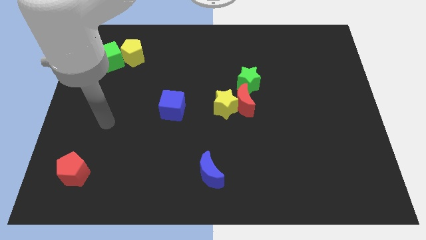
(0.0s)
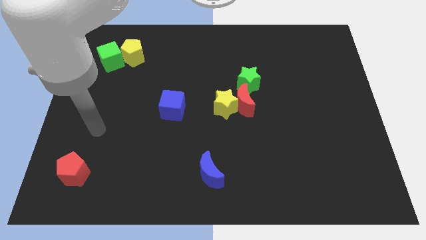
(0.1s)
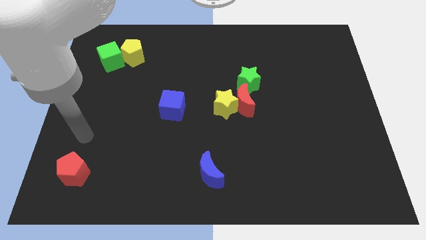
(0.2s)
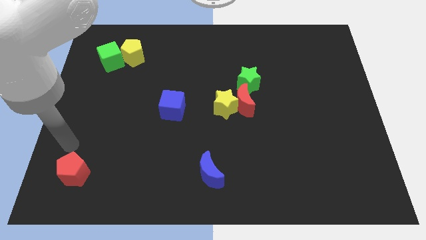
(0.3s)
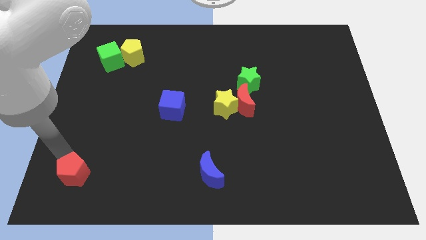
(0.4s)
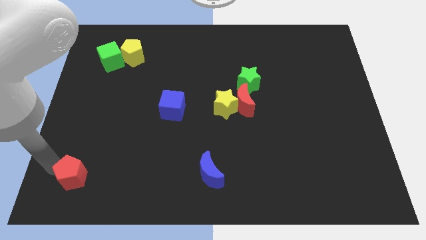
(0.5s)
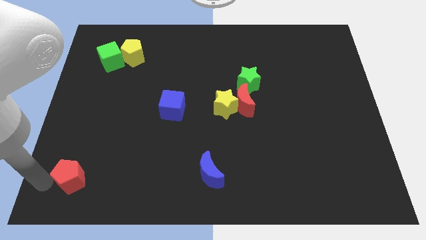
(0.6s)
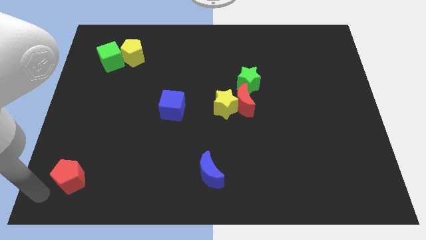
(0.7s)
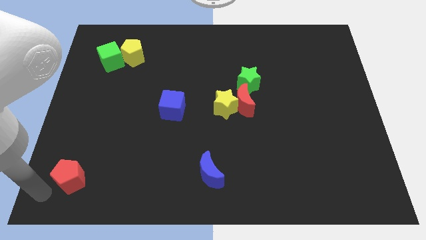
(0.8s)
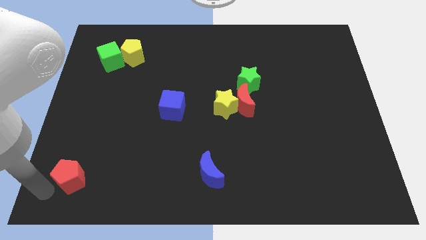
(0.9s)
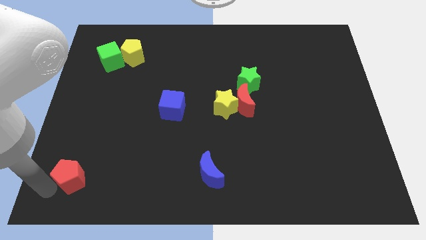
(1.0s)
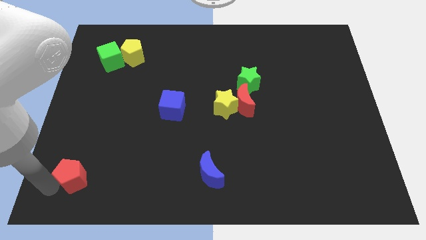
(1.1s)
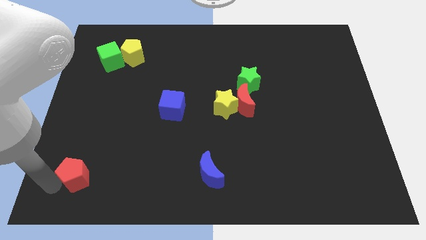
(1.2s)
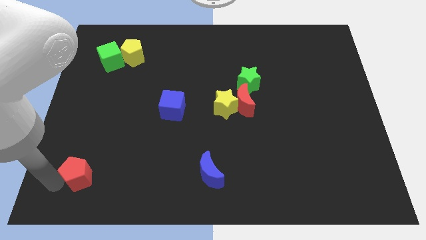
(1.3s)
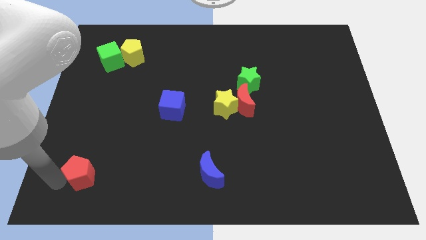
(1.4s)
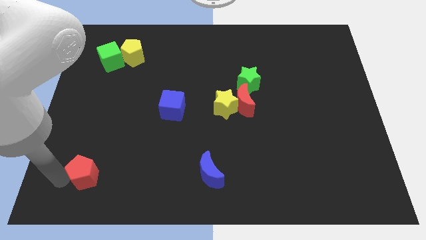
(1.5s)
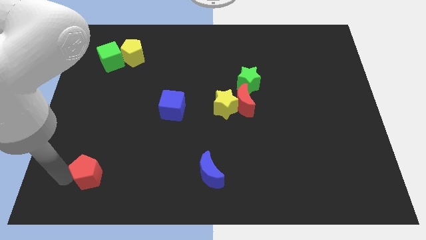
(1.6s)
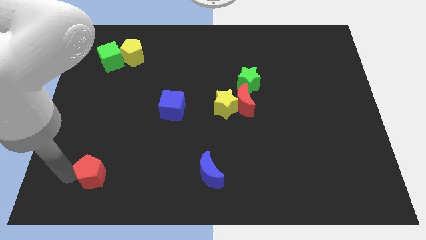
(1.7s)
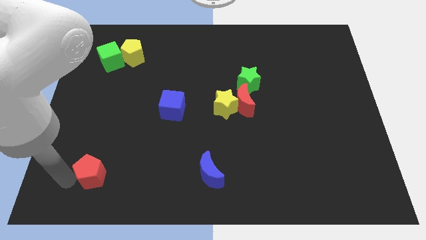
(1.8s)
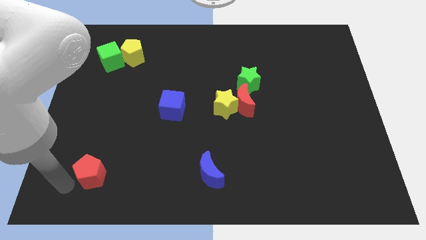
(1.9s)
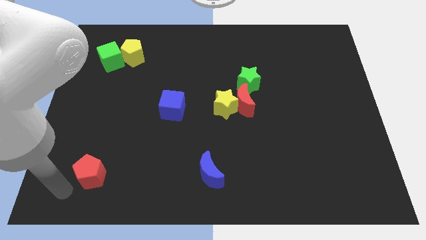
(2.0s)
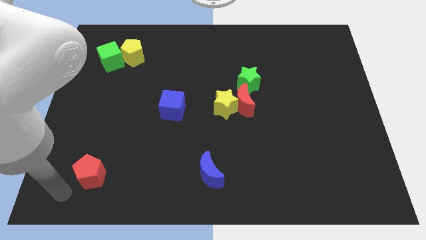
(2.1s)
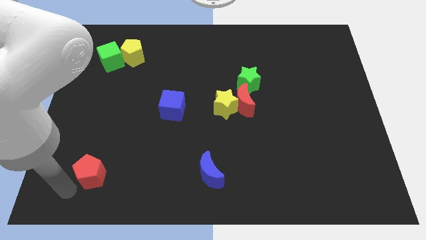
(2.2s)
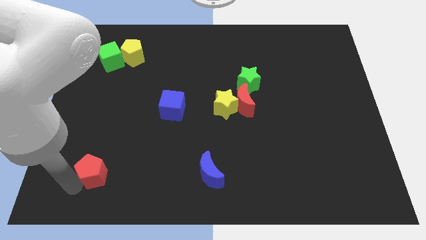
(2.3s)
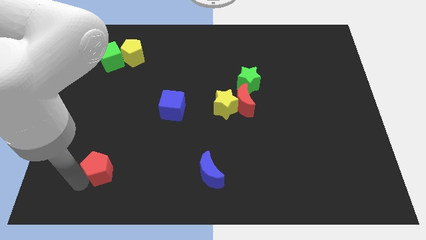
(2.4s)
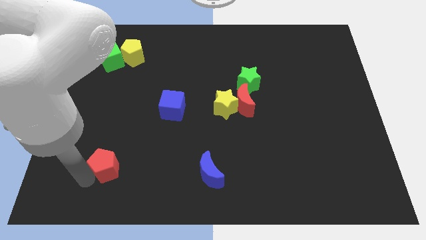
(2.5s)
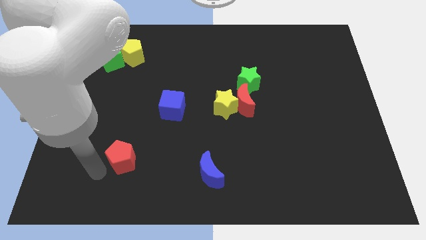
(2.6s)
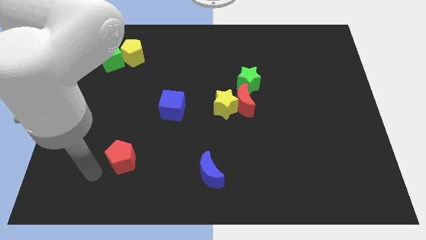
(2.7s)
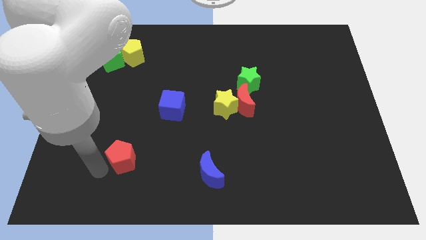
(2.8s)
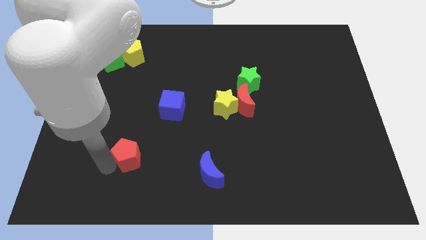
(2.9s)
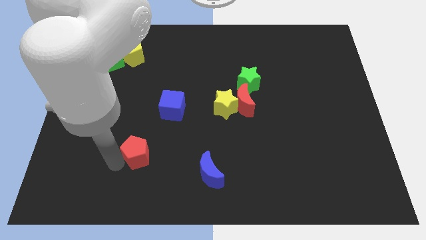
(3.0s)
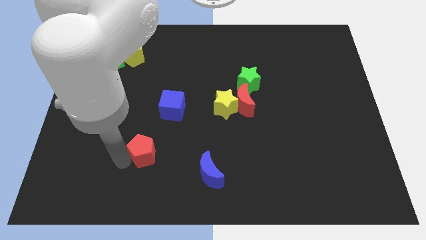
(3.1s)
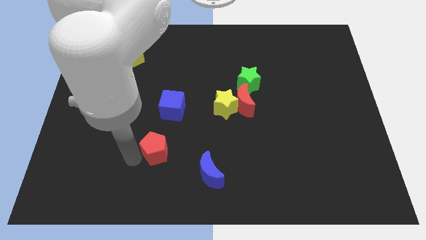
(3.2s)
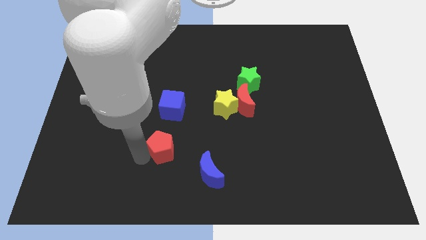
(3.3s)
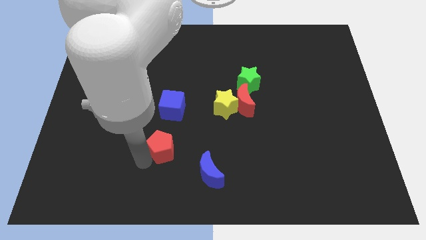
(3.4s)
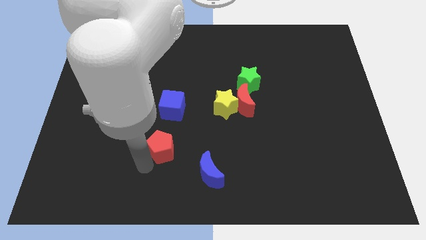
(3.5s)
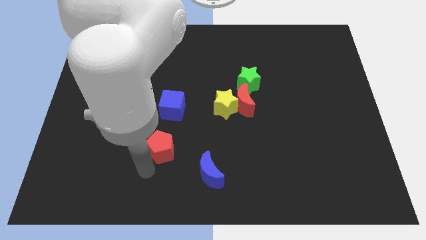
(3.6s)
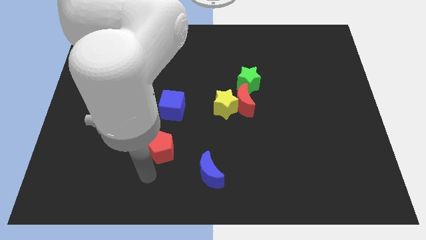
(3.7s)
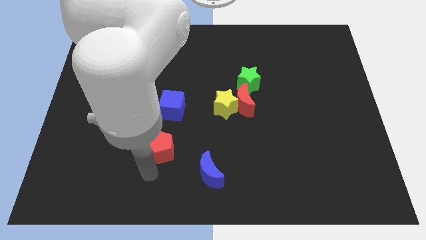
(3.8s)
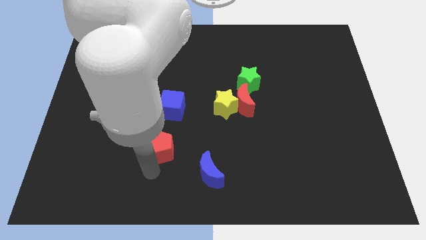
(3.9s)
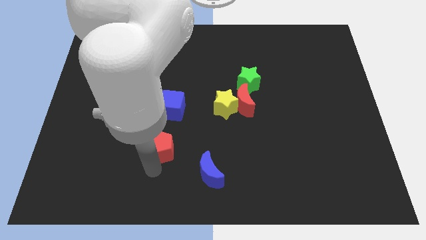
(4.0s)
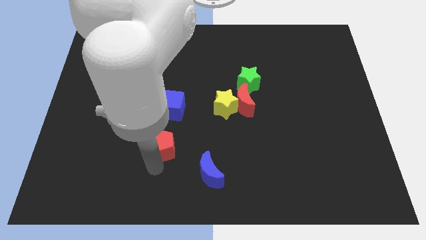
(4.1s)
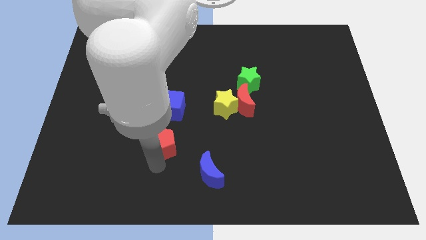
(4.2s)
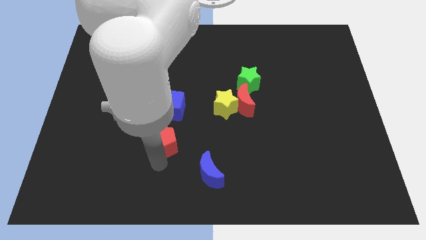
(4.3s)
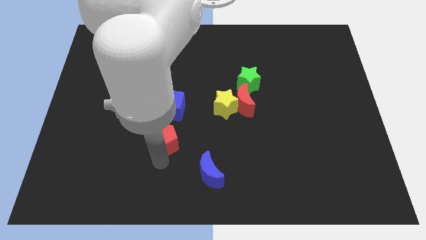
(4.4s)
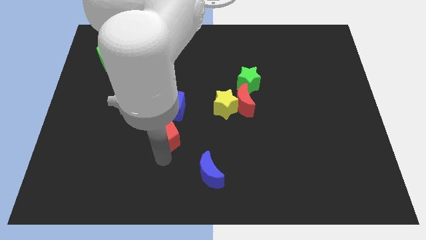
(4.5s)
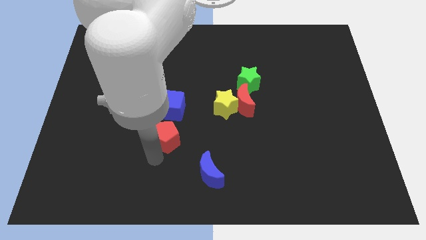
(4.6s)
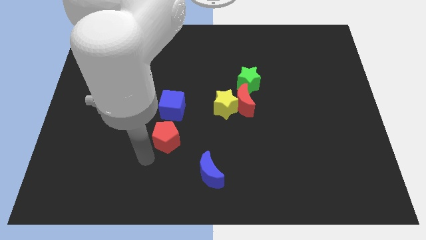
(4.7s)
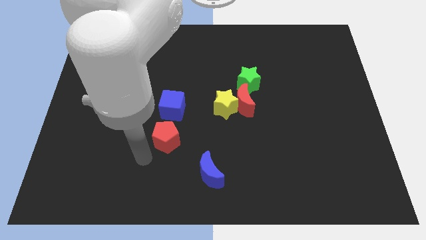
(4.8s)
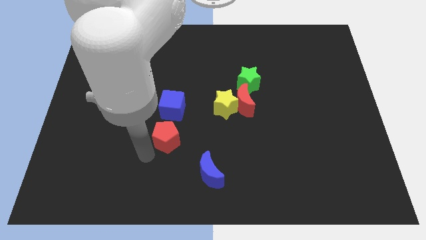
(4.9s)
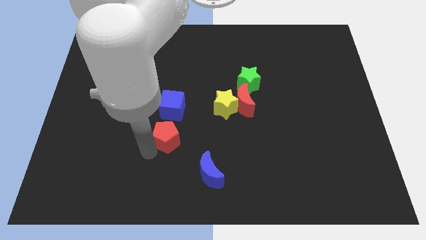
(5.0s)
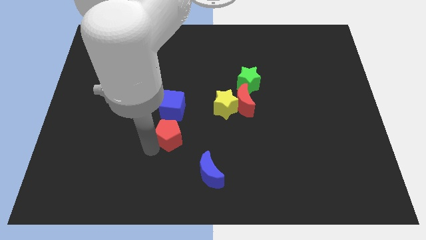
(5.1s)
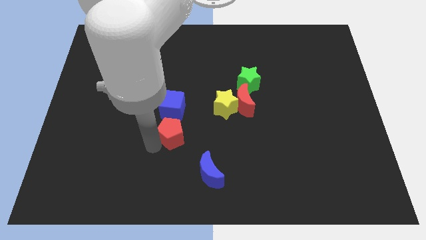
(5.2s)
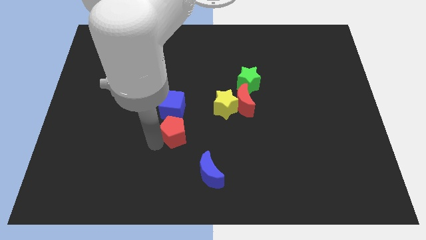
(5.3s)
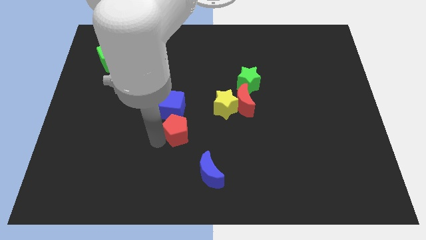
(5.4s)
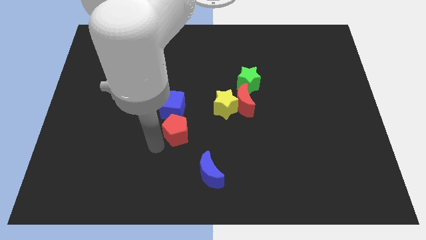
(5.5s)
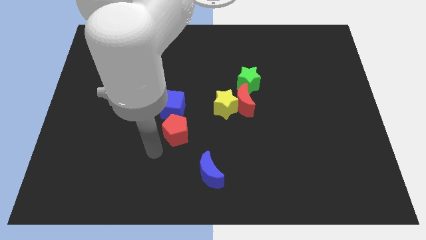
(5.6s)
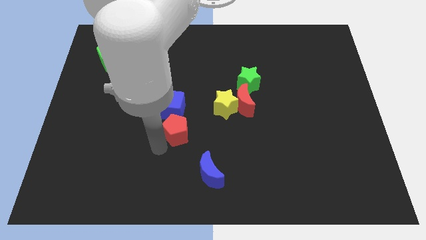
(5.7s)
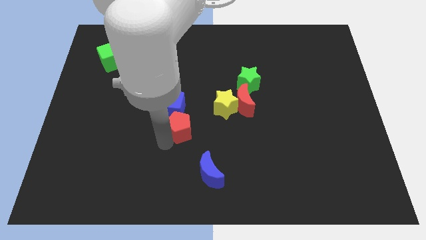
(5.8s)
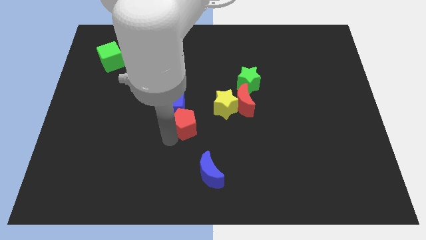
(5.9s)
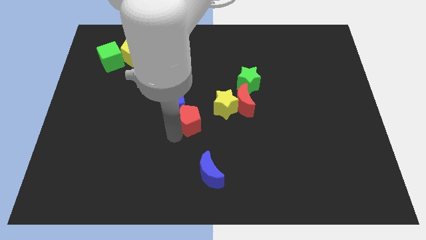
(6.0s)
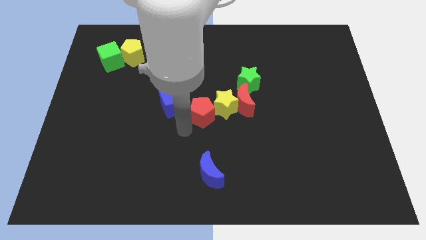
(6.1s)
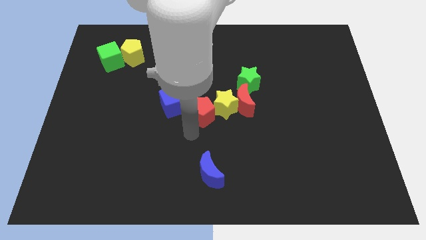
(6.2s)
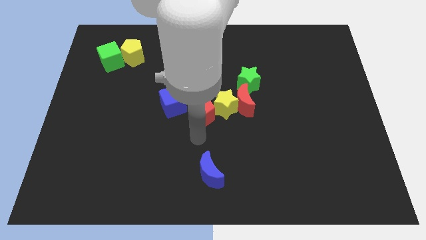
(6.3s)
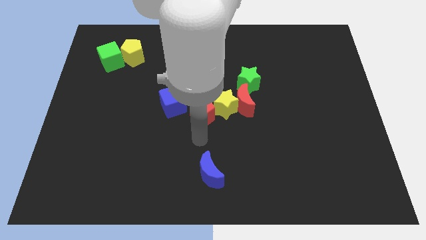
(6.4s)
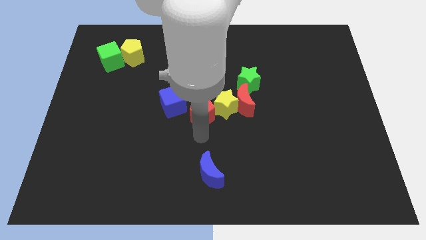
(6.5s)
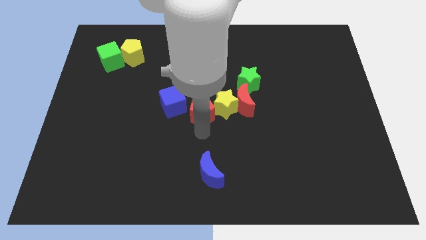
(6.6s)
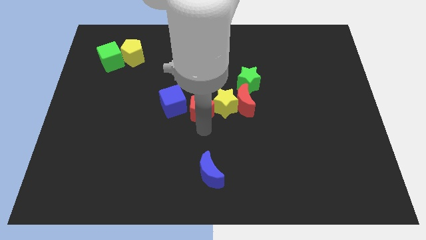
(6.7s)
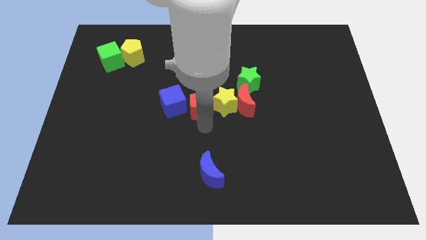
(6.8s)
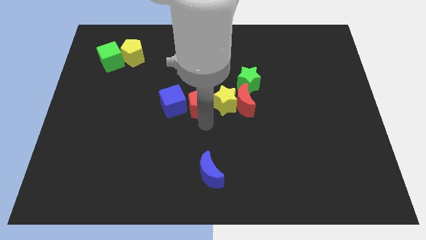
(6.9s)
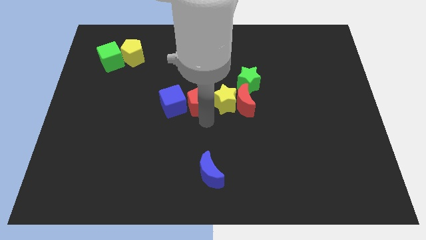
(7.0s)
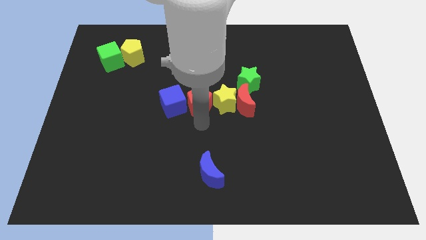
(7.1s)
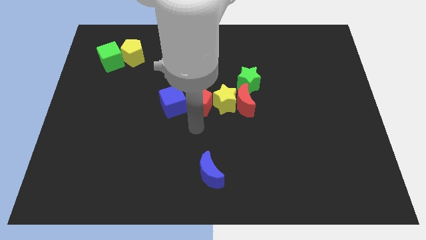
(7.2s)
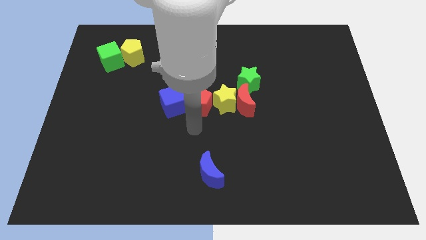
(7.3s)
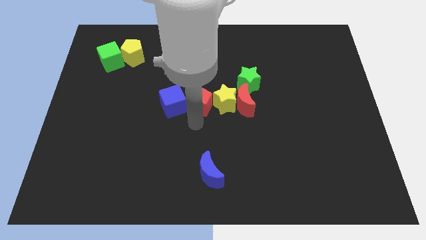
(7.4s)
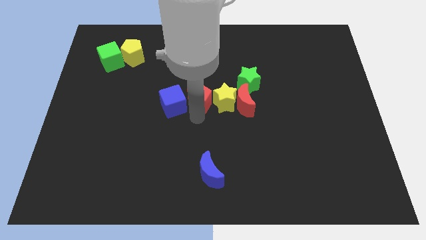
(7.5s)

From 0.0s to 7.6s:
put the red pentagon diagonally up and to the left of the yellow star

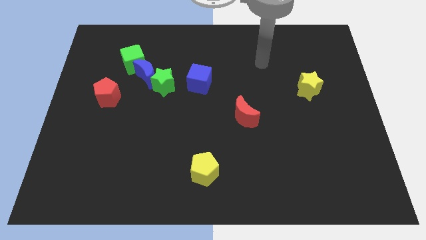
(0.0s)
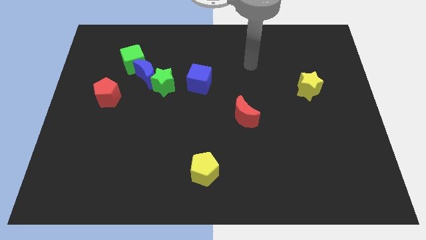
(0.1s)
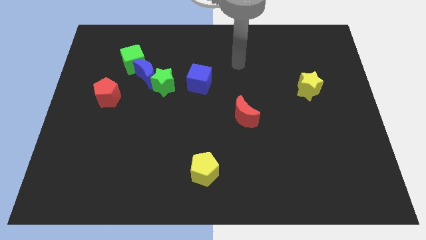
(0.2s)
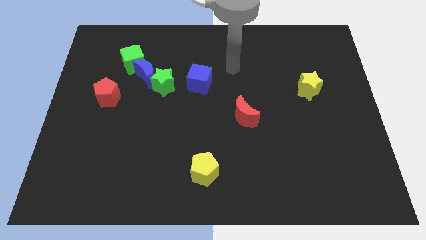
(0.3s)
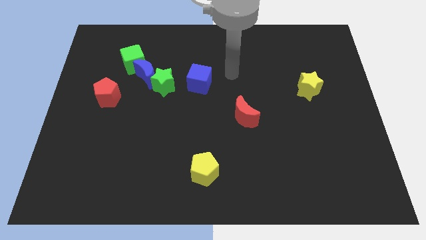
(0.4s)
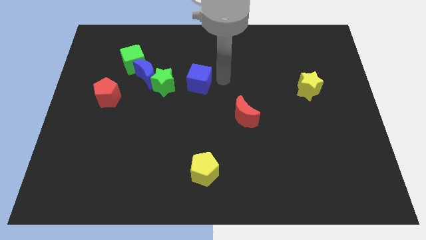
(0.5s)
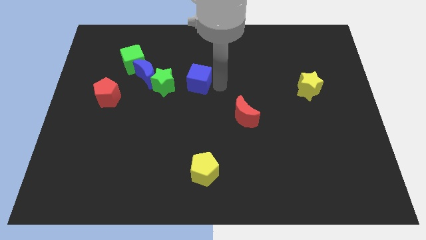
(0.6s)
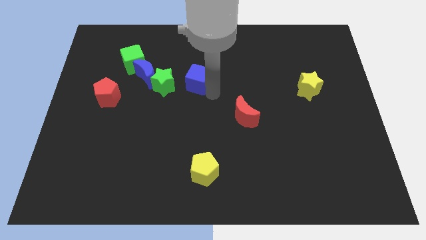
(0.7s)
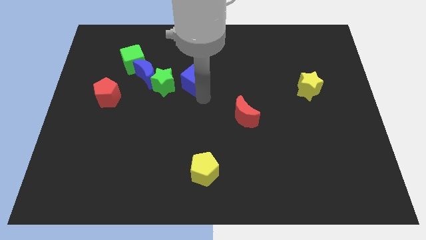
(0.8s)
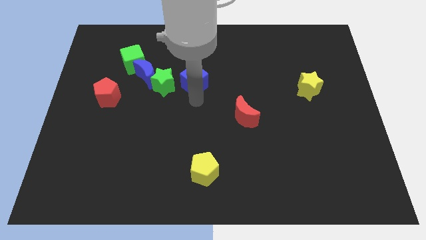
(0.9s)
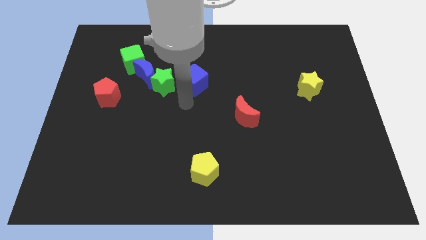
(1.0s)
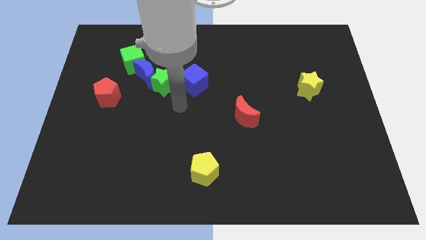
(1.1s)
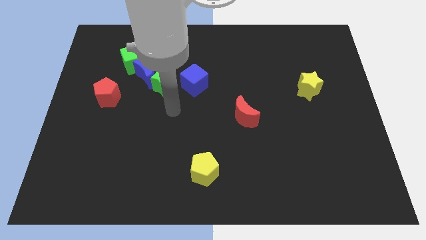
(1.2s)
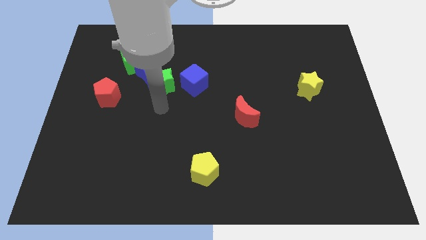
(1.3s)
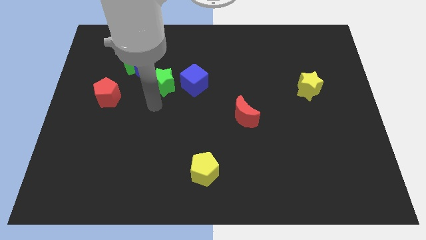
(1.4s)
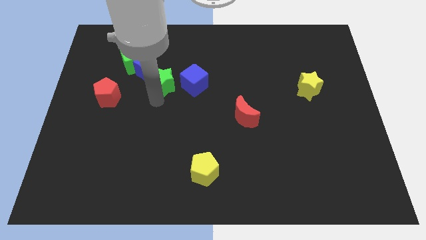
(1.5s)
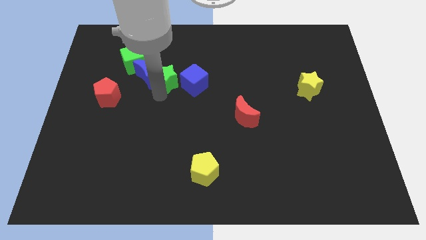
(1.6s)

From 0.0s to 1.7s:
move the green star to the top left of the blue cube
